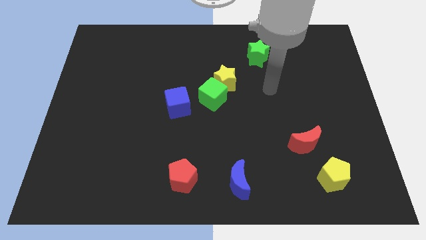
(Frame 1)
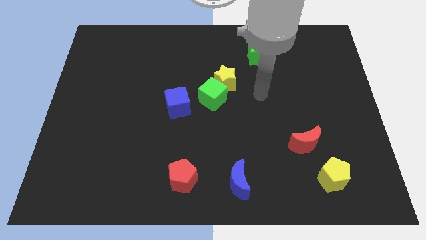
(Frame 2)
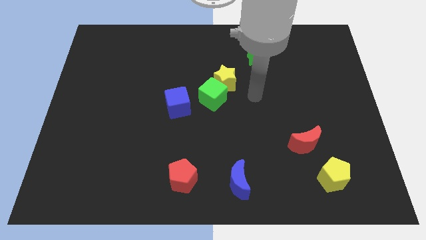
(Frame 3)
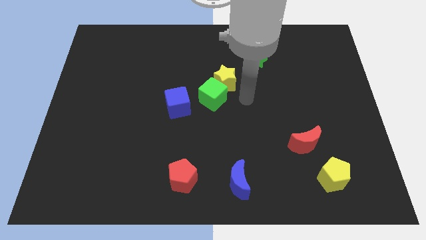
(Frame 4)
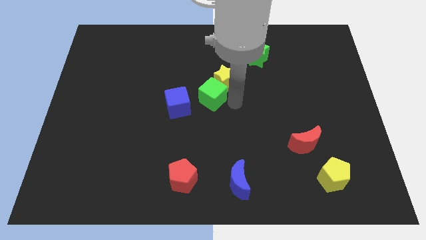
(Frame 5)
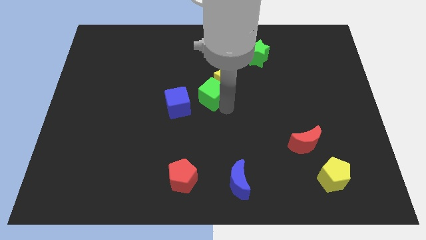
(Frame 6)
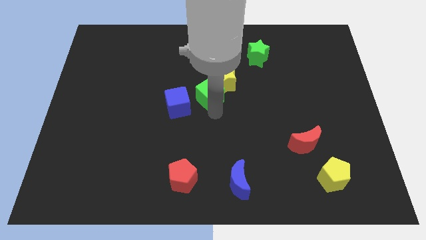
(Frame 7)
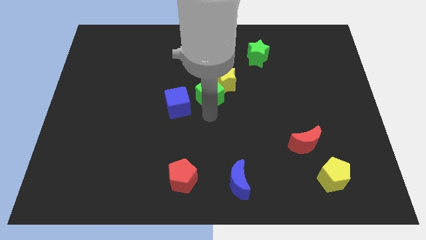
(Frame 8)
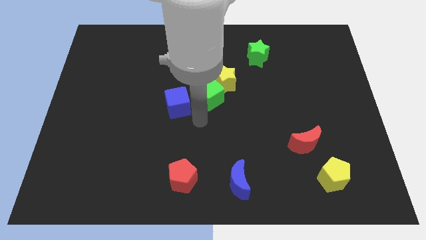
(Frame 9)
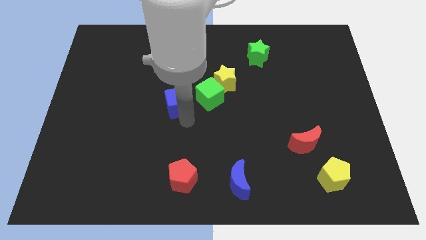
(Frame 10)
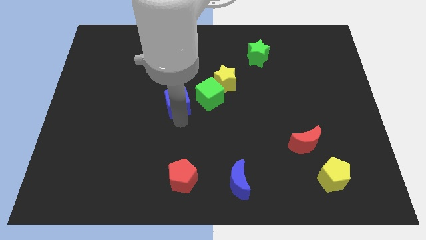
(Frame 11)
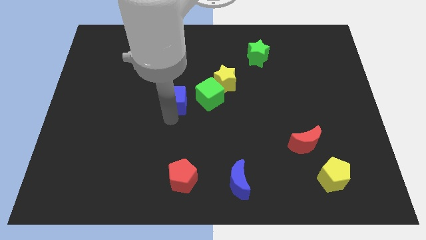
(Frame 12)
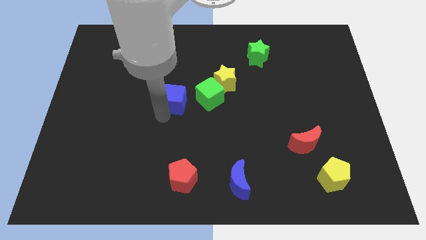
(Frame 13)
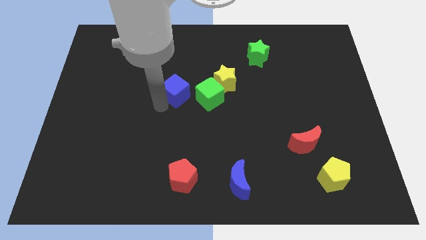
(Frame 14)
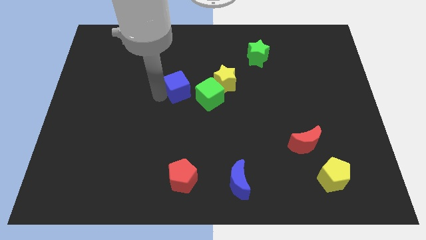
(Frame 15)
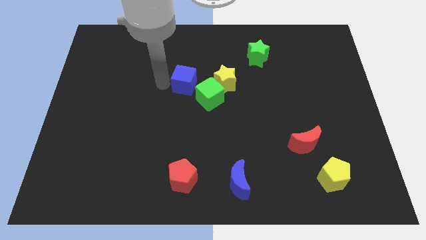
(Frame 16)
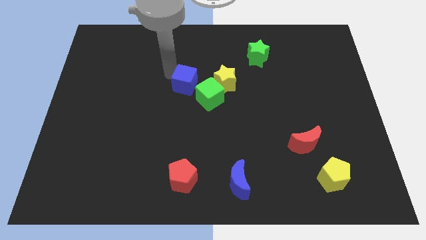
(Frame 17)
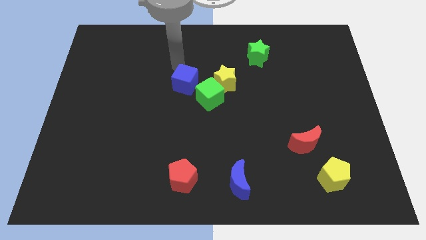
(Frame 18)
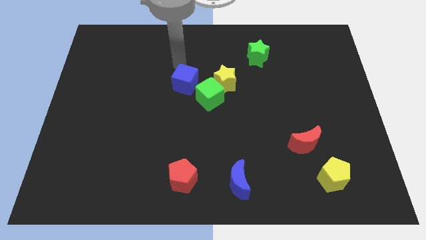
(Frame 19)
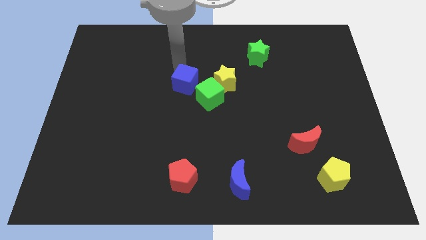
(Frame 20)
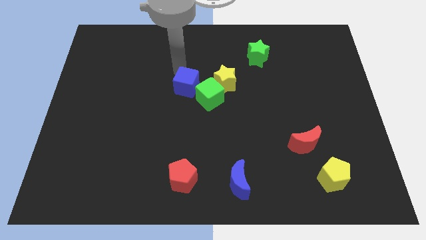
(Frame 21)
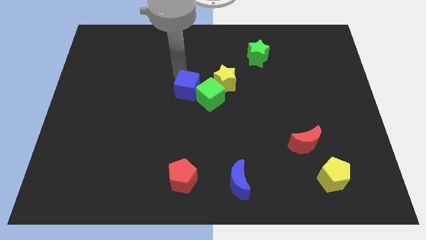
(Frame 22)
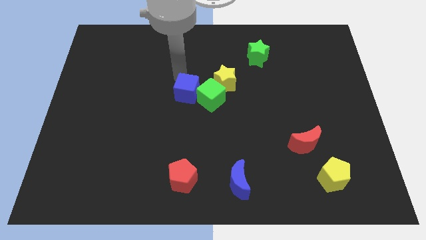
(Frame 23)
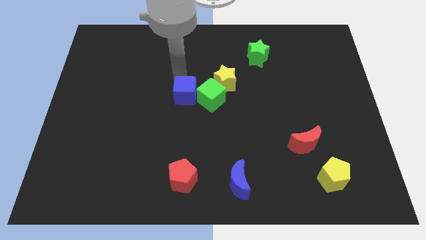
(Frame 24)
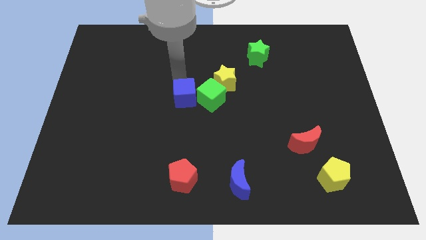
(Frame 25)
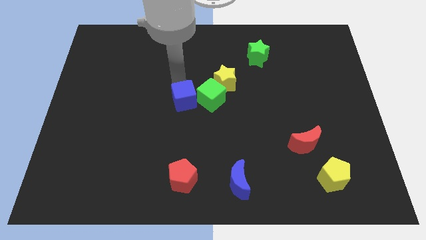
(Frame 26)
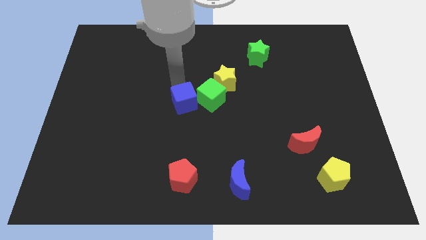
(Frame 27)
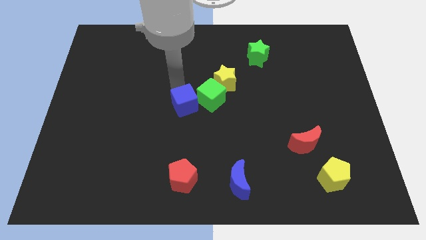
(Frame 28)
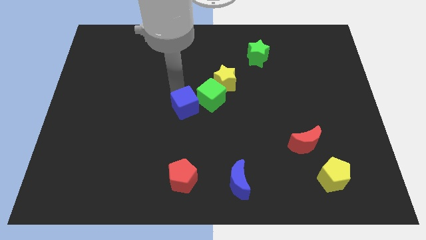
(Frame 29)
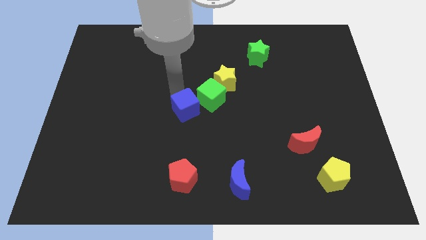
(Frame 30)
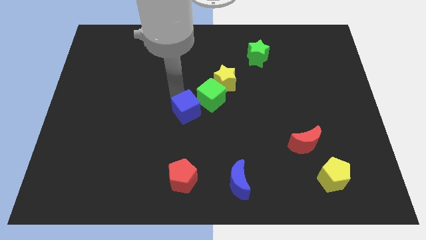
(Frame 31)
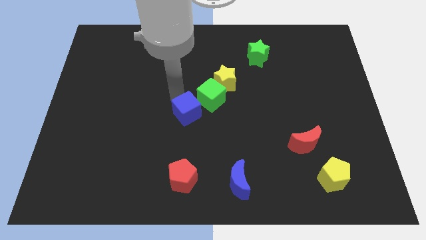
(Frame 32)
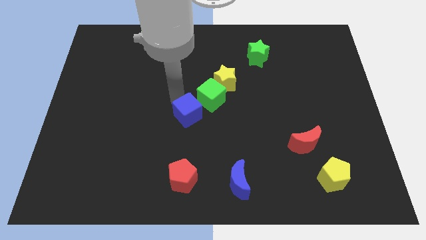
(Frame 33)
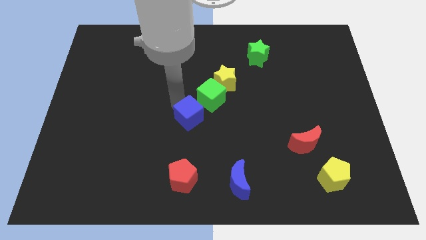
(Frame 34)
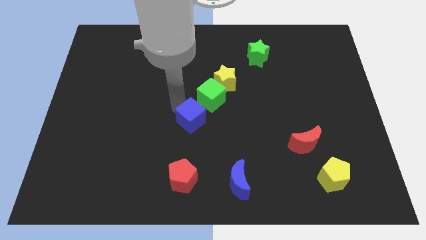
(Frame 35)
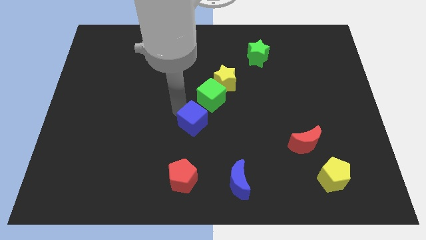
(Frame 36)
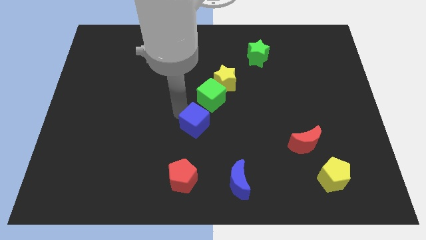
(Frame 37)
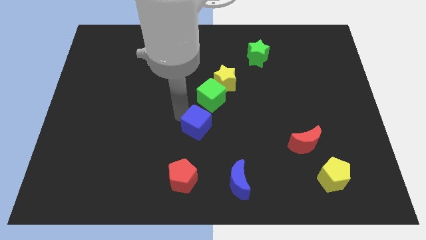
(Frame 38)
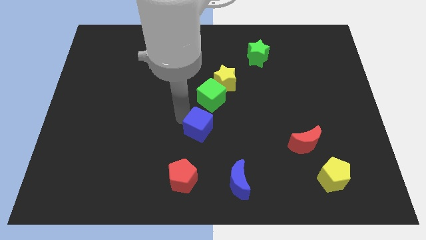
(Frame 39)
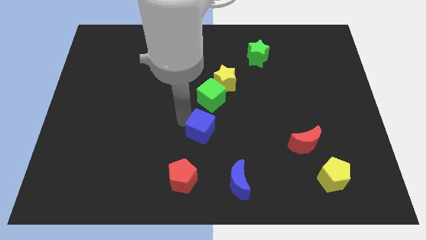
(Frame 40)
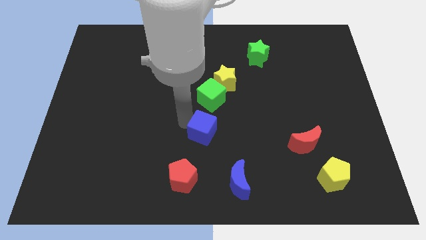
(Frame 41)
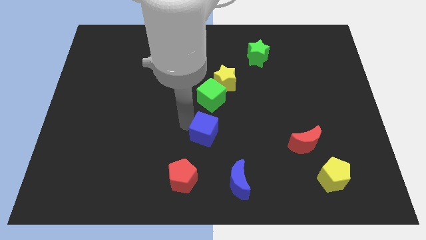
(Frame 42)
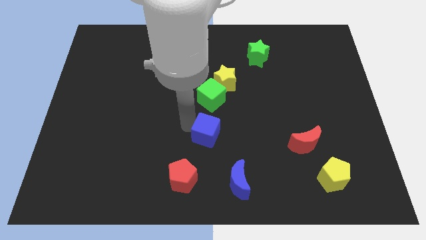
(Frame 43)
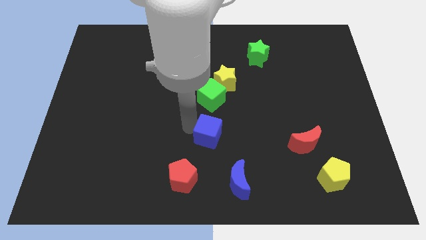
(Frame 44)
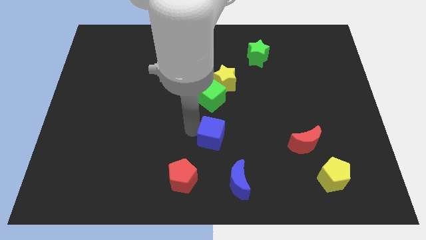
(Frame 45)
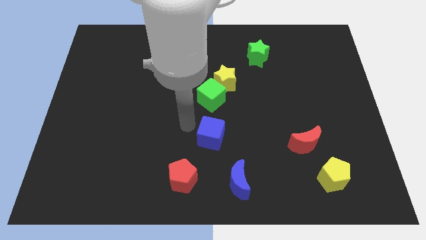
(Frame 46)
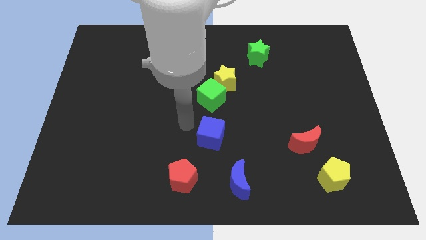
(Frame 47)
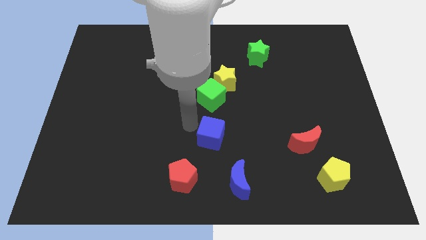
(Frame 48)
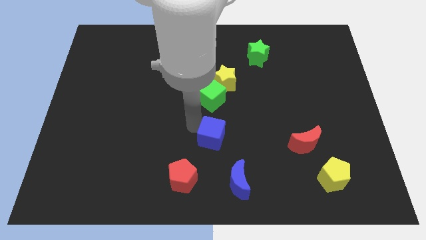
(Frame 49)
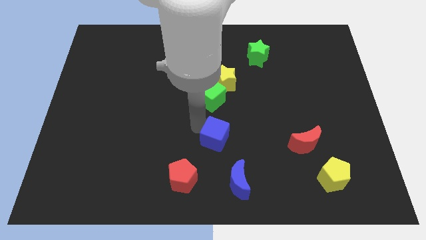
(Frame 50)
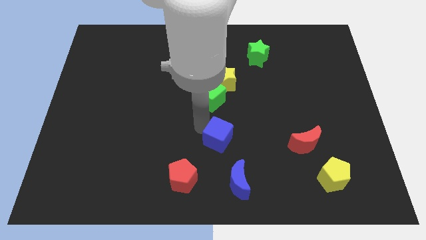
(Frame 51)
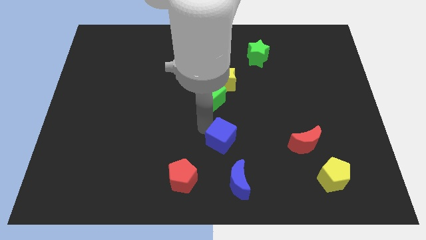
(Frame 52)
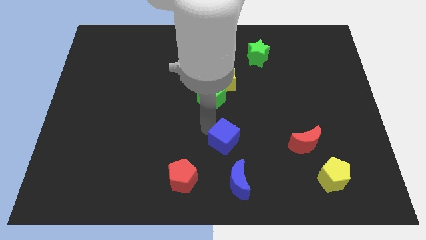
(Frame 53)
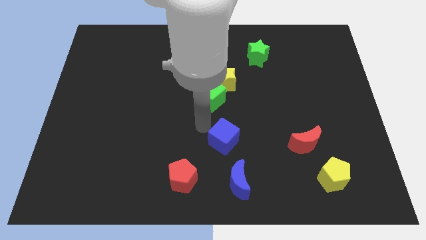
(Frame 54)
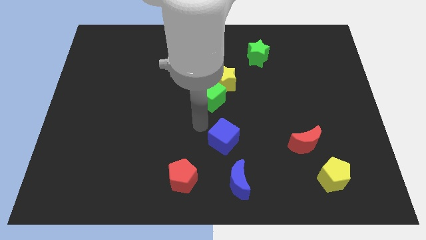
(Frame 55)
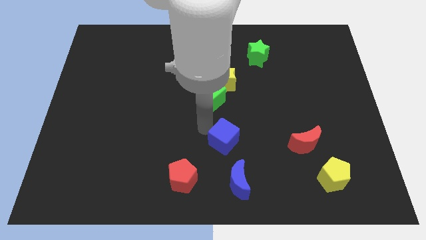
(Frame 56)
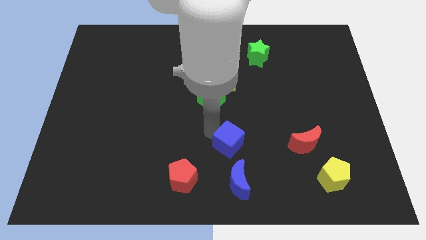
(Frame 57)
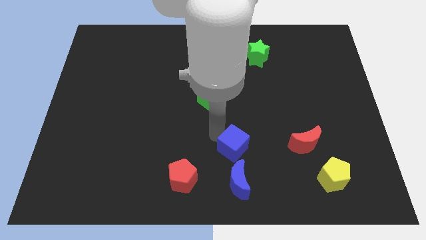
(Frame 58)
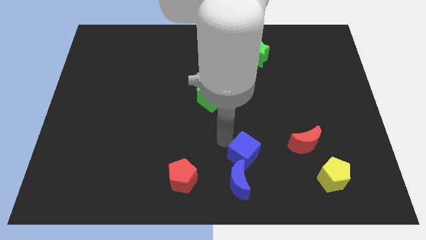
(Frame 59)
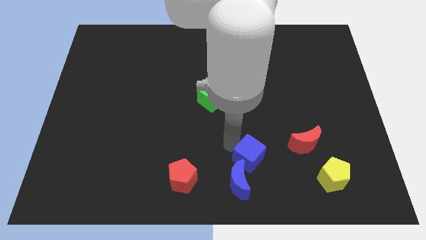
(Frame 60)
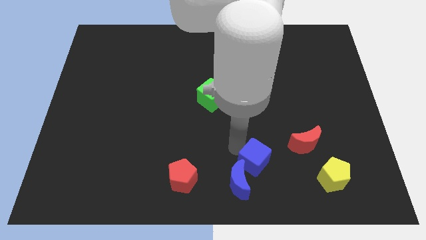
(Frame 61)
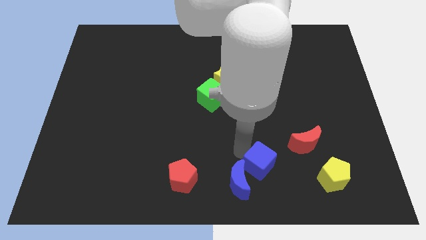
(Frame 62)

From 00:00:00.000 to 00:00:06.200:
move the blue cube to the right side of the blue moon
